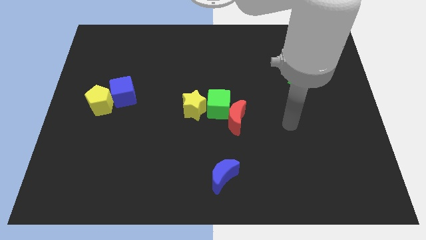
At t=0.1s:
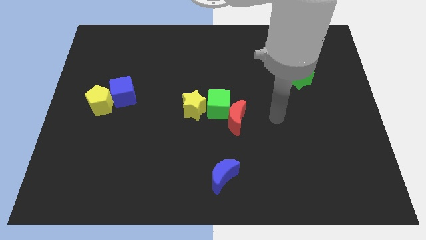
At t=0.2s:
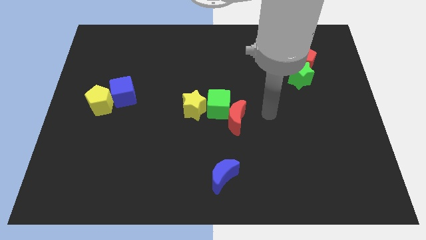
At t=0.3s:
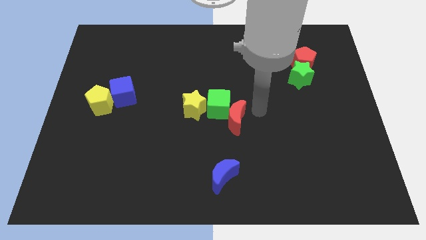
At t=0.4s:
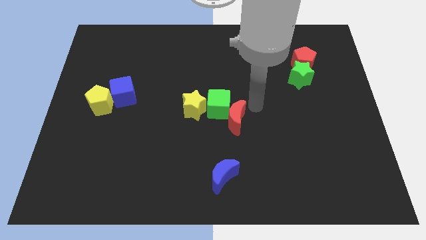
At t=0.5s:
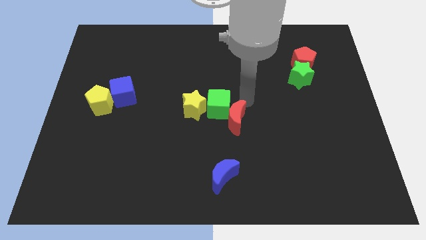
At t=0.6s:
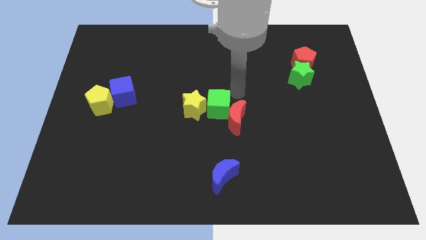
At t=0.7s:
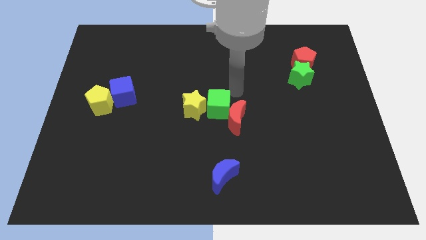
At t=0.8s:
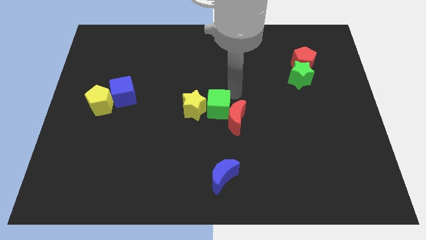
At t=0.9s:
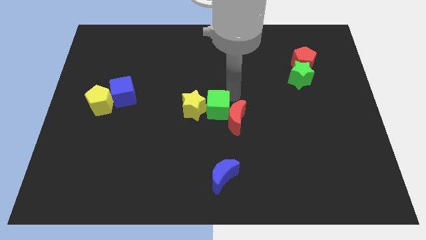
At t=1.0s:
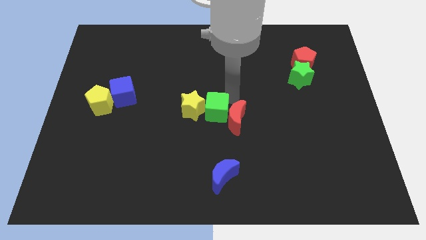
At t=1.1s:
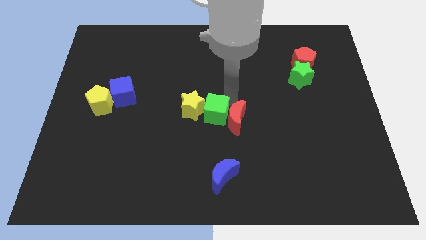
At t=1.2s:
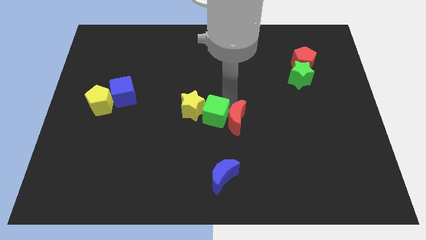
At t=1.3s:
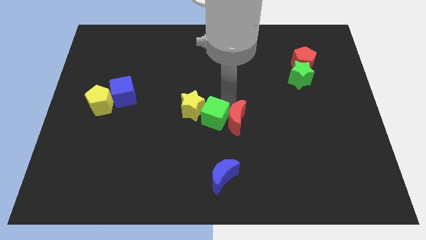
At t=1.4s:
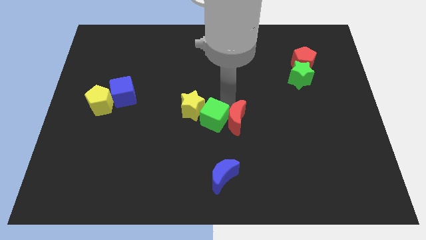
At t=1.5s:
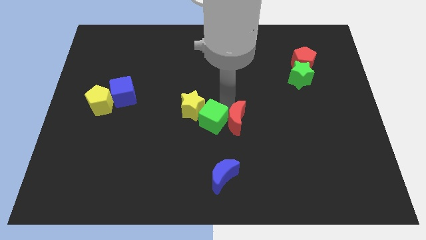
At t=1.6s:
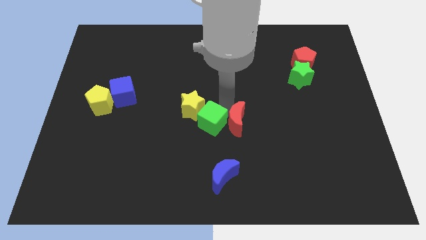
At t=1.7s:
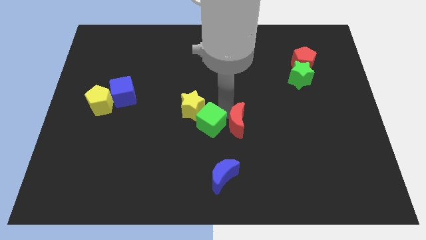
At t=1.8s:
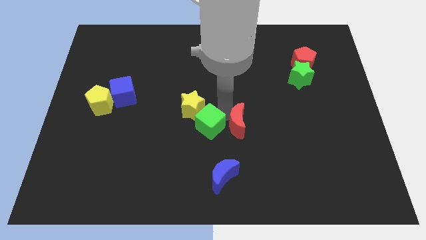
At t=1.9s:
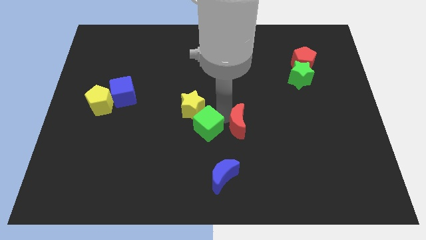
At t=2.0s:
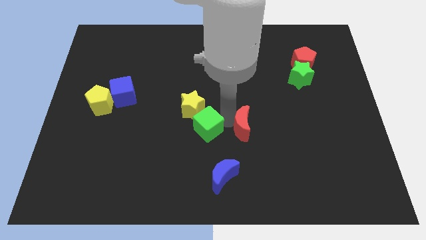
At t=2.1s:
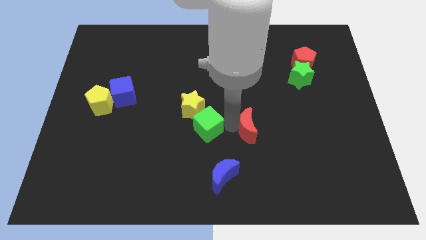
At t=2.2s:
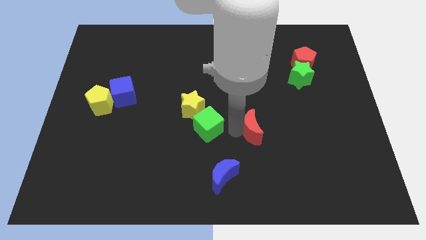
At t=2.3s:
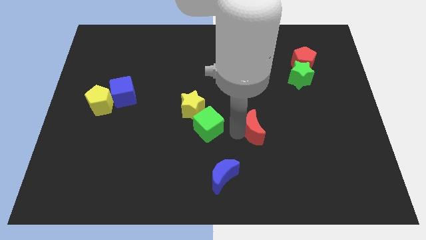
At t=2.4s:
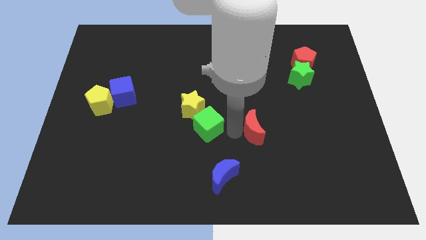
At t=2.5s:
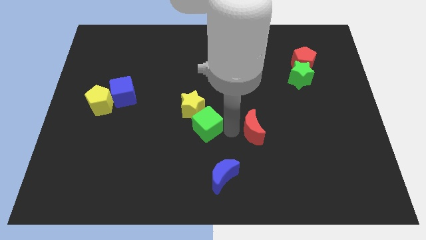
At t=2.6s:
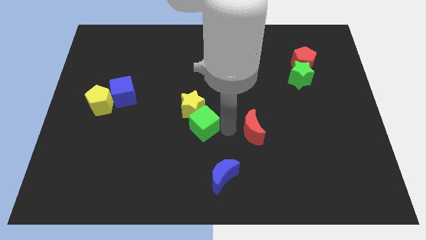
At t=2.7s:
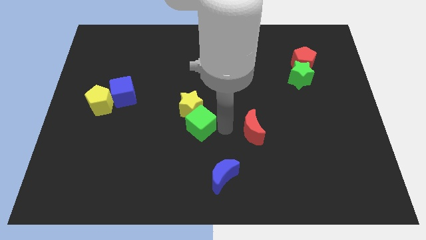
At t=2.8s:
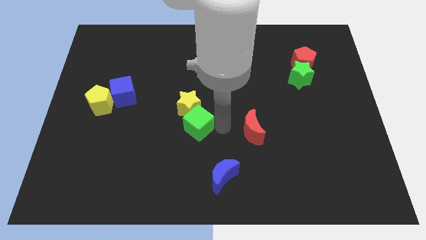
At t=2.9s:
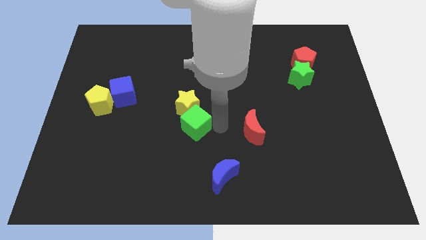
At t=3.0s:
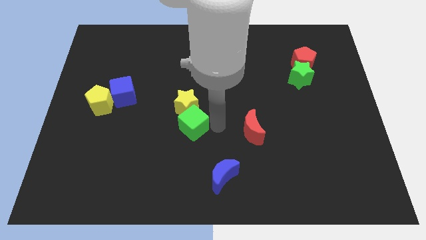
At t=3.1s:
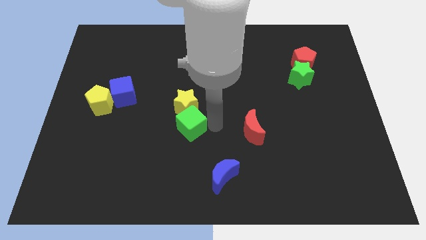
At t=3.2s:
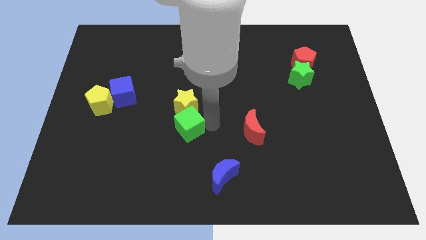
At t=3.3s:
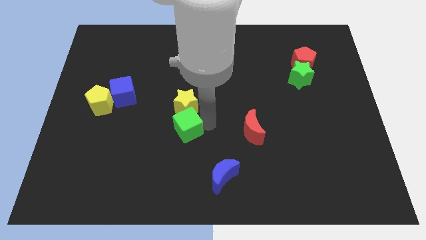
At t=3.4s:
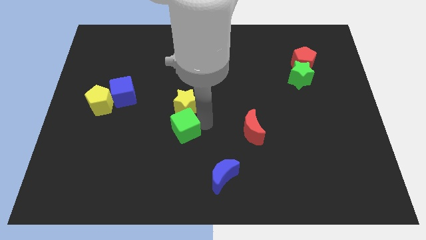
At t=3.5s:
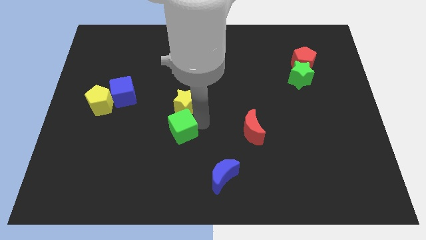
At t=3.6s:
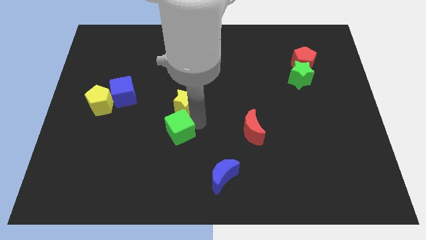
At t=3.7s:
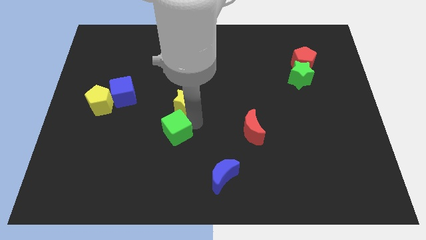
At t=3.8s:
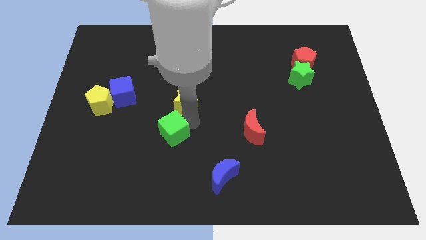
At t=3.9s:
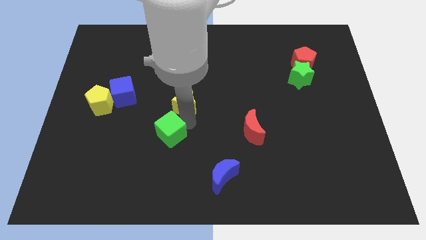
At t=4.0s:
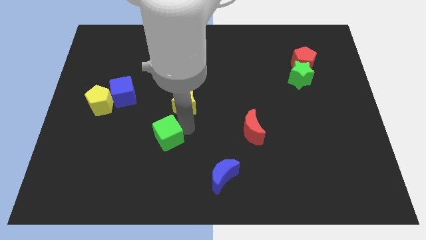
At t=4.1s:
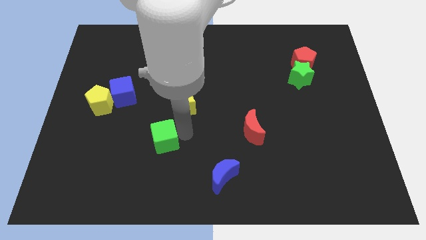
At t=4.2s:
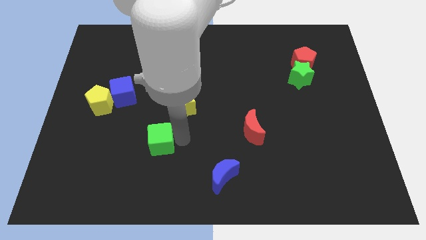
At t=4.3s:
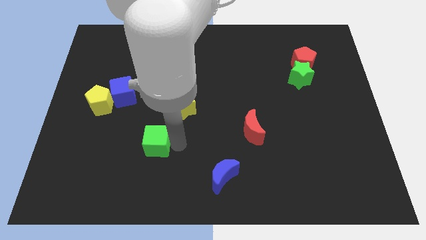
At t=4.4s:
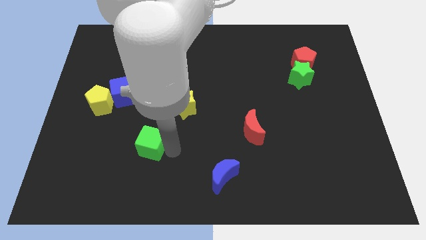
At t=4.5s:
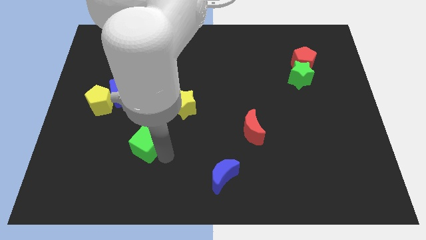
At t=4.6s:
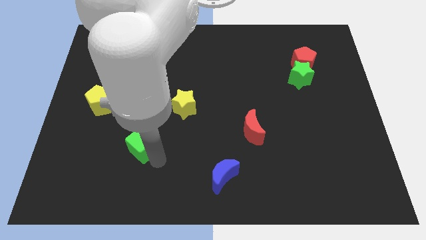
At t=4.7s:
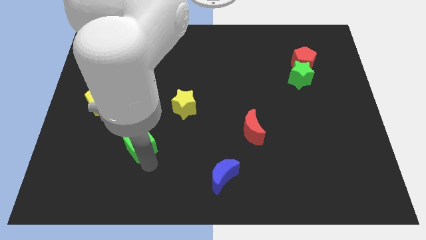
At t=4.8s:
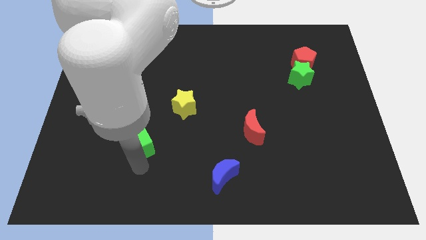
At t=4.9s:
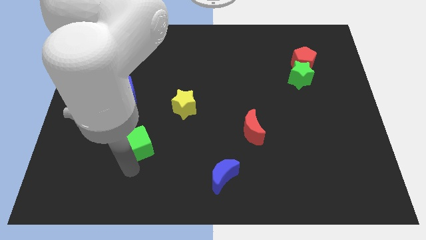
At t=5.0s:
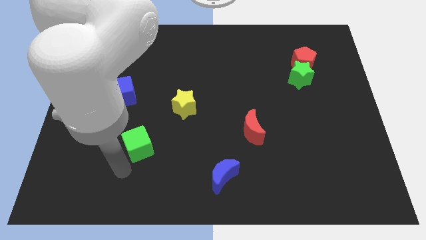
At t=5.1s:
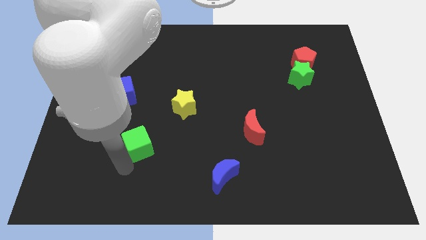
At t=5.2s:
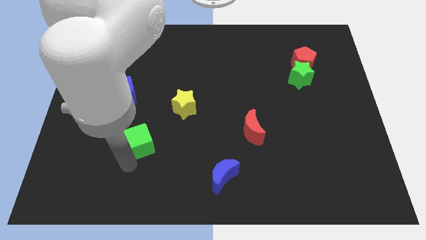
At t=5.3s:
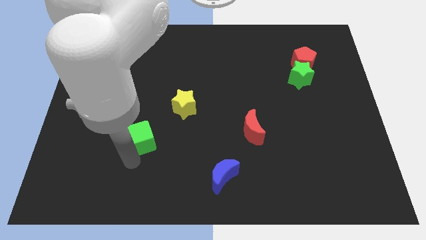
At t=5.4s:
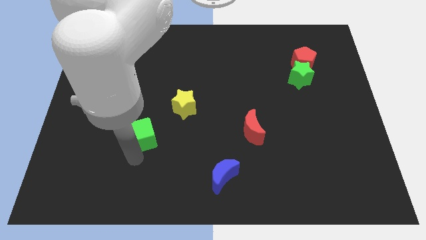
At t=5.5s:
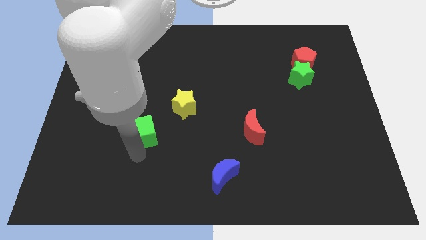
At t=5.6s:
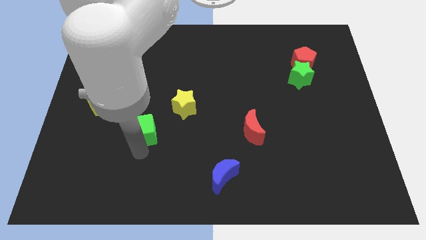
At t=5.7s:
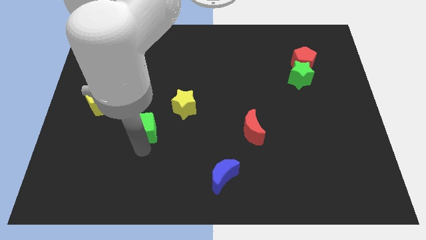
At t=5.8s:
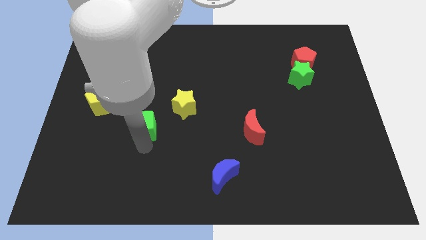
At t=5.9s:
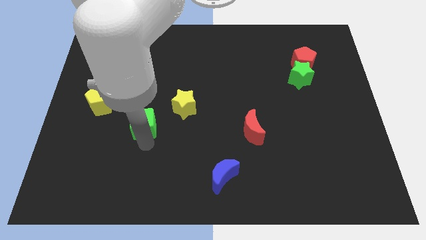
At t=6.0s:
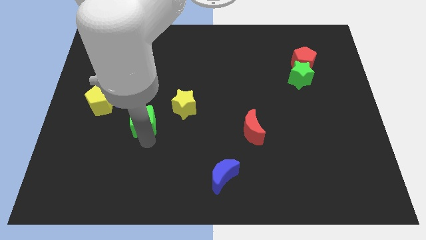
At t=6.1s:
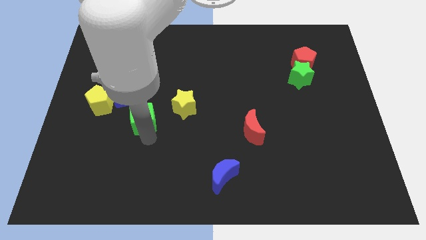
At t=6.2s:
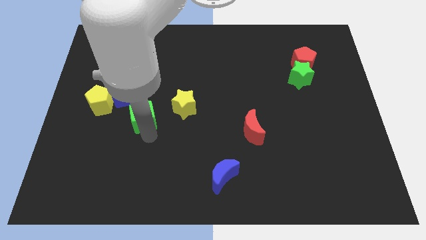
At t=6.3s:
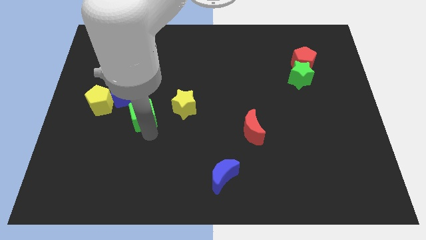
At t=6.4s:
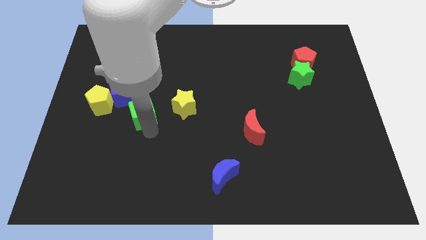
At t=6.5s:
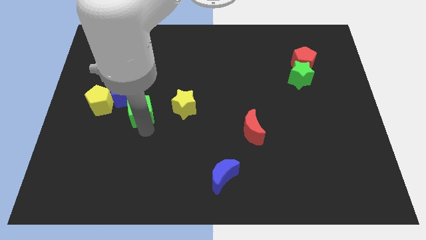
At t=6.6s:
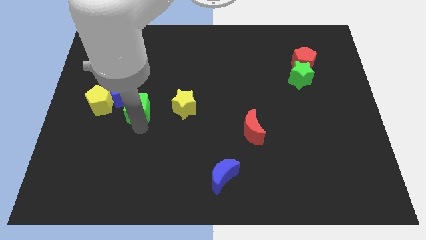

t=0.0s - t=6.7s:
put the green cube next to the blue cube

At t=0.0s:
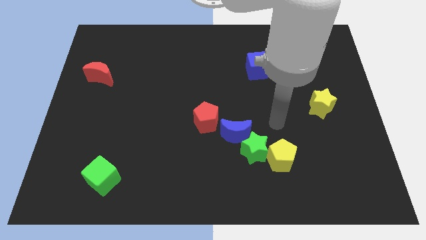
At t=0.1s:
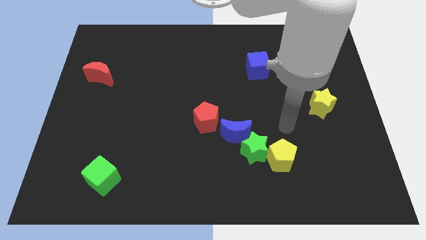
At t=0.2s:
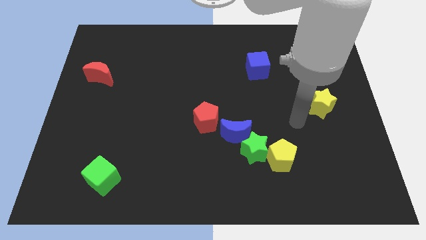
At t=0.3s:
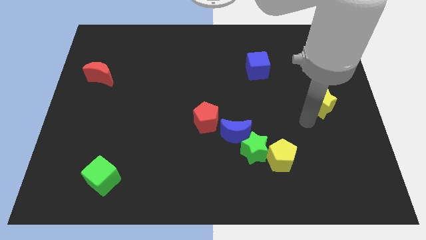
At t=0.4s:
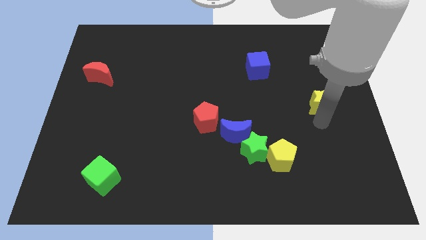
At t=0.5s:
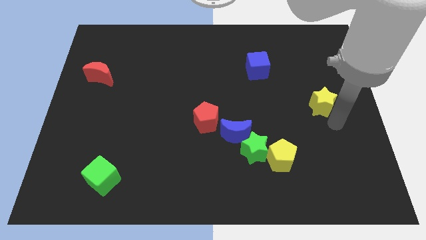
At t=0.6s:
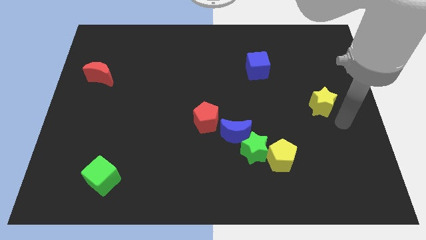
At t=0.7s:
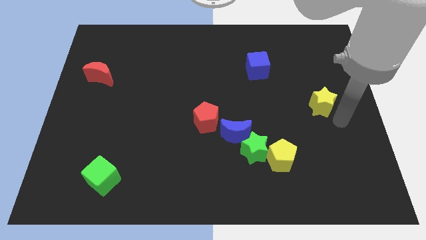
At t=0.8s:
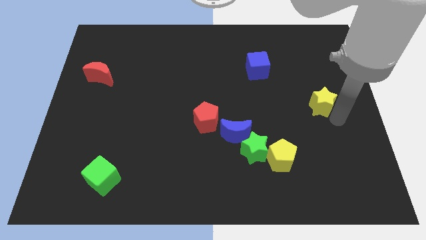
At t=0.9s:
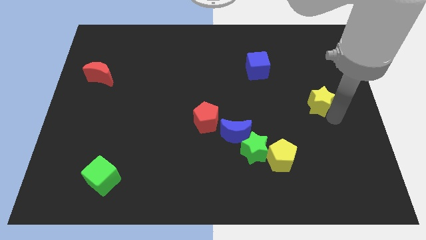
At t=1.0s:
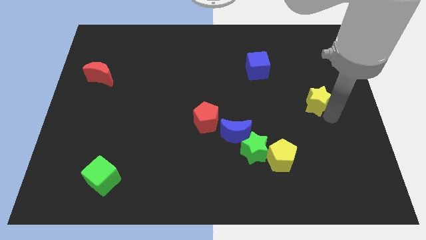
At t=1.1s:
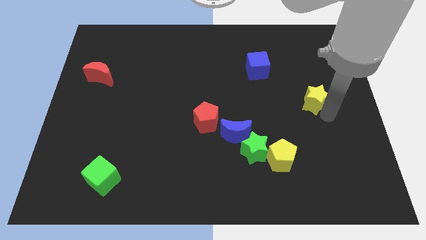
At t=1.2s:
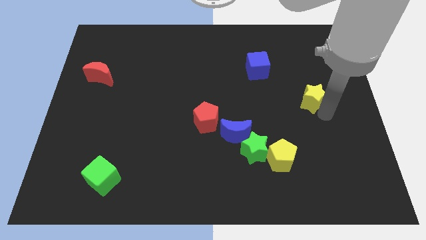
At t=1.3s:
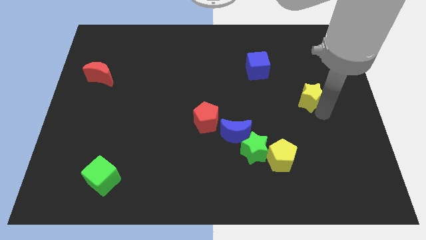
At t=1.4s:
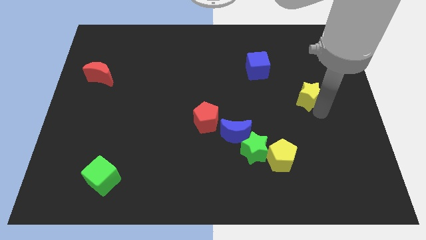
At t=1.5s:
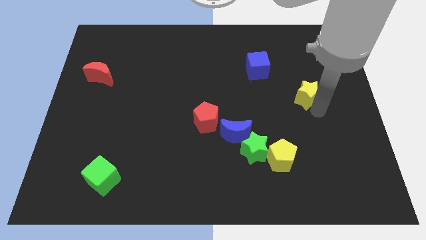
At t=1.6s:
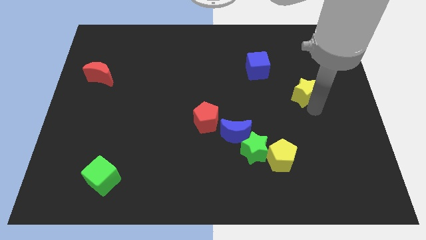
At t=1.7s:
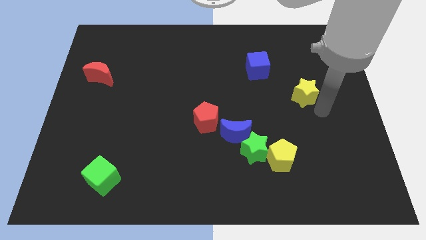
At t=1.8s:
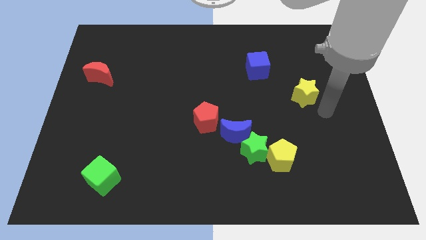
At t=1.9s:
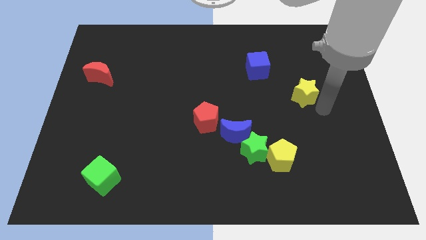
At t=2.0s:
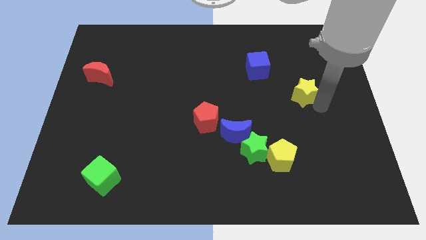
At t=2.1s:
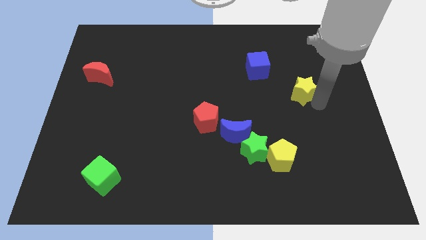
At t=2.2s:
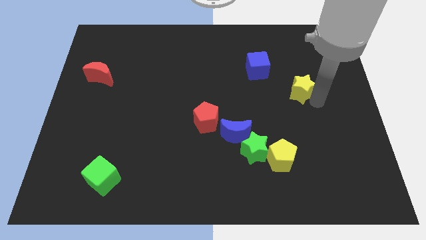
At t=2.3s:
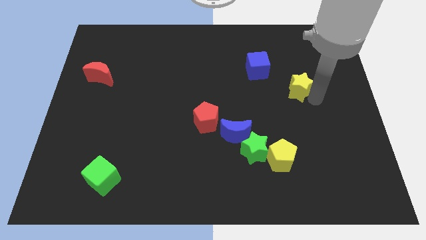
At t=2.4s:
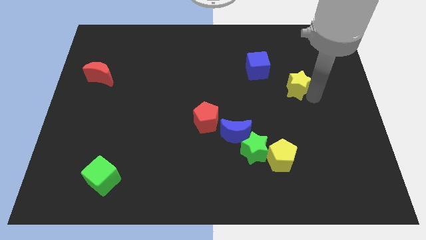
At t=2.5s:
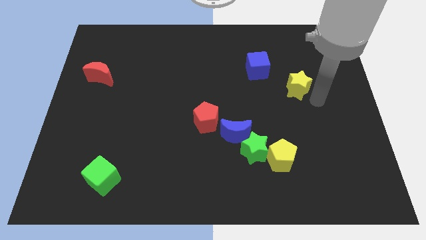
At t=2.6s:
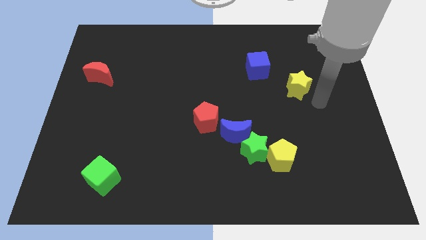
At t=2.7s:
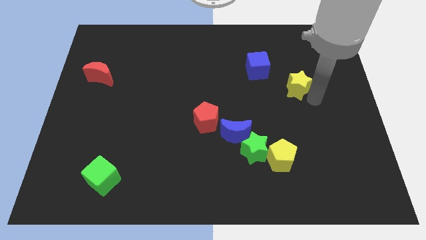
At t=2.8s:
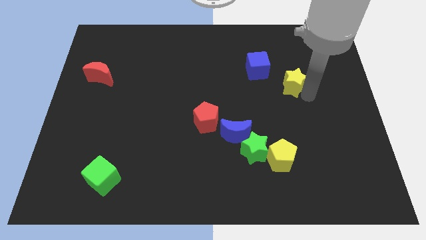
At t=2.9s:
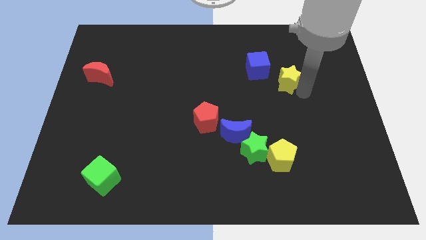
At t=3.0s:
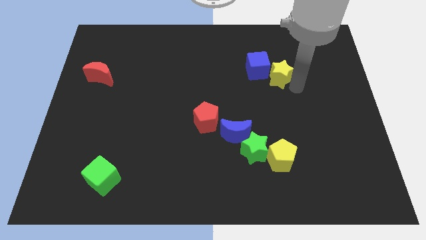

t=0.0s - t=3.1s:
slide the yellow star towards the blue cube
